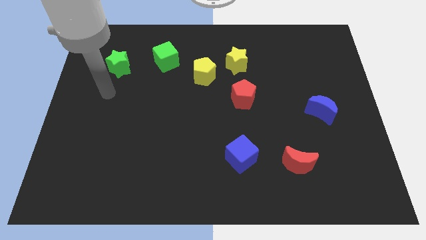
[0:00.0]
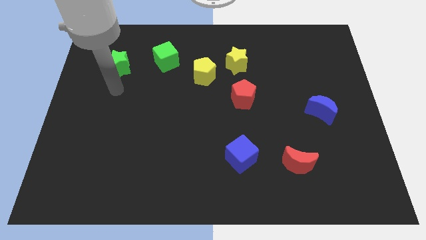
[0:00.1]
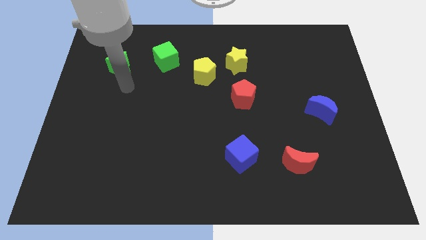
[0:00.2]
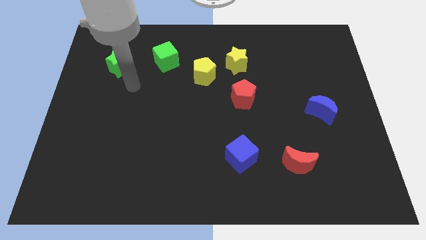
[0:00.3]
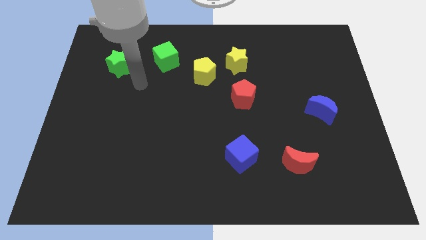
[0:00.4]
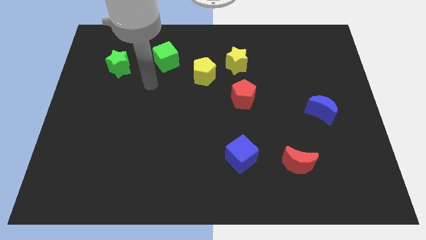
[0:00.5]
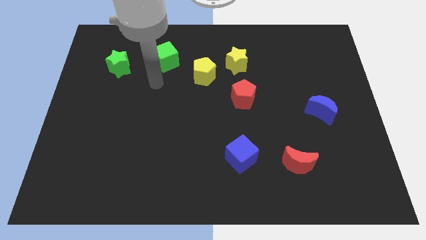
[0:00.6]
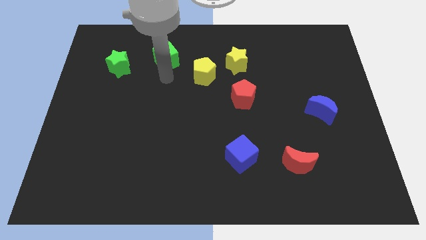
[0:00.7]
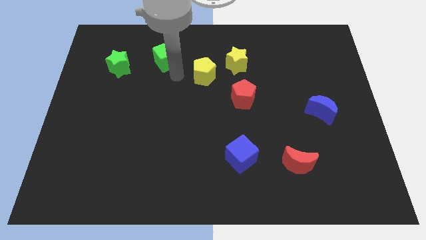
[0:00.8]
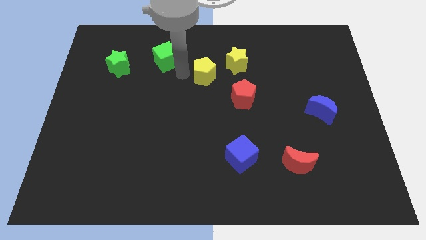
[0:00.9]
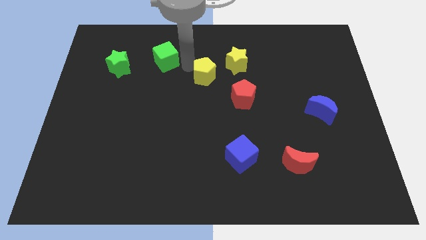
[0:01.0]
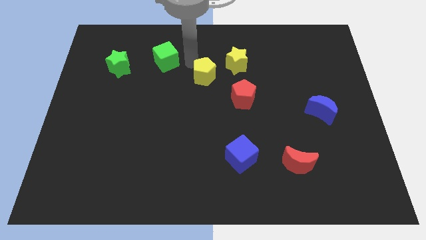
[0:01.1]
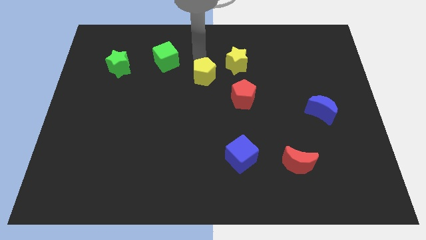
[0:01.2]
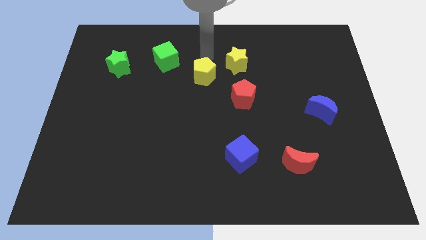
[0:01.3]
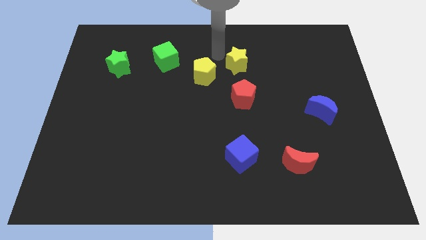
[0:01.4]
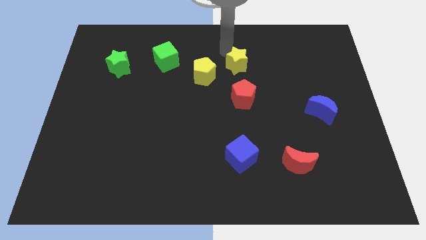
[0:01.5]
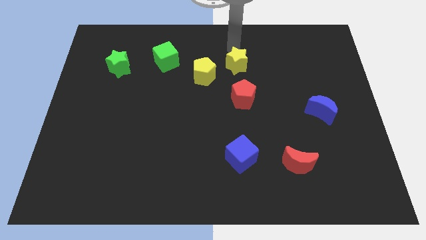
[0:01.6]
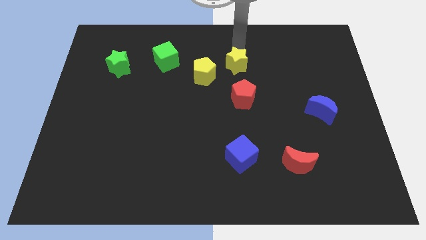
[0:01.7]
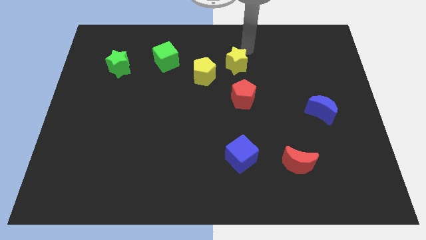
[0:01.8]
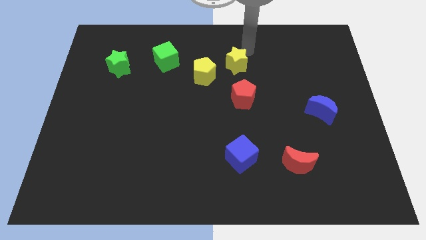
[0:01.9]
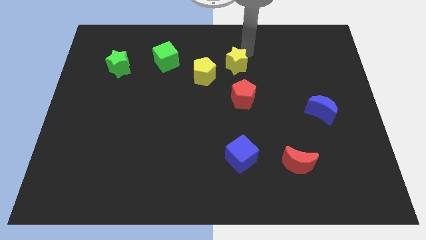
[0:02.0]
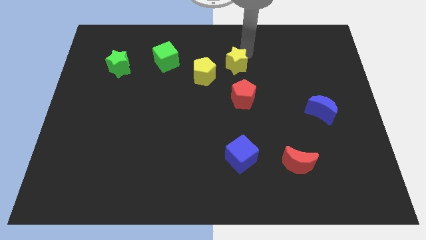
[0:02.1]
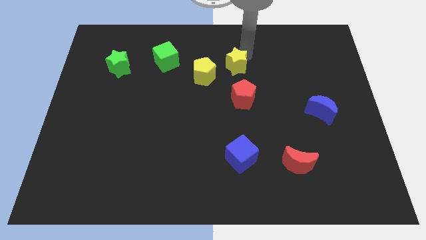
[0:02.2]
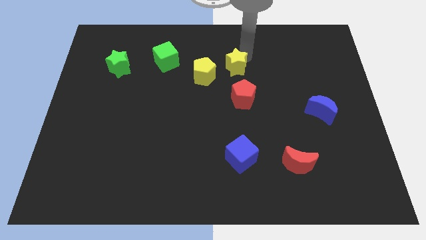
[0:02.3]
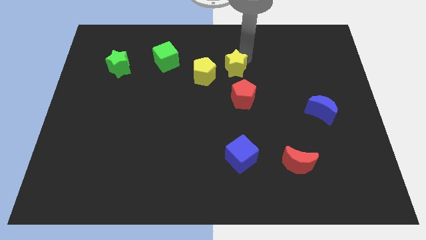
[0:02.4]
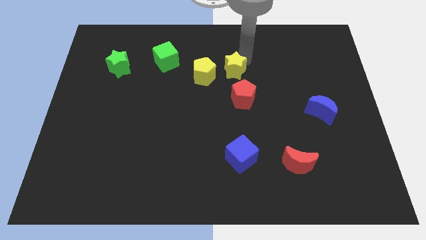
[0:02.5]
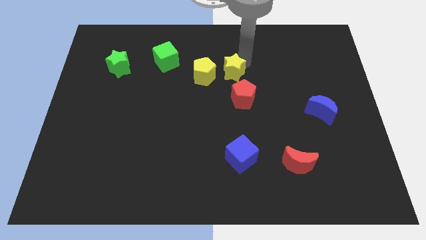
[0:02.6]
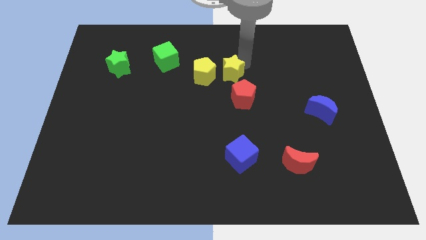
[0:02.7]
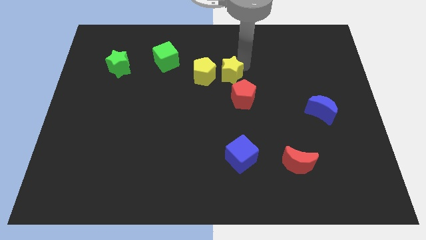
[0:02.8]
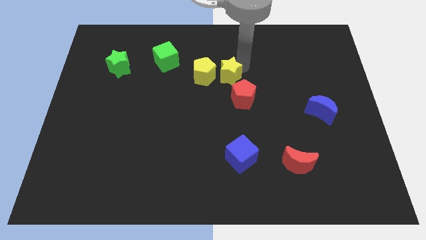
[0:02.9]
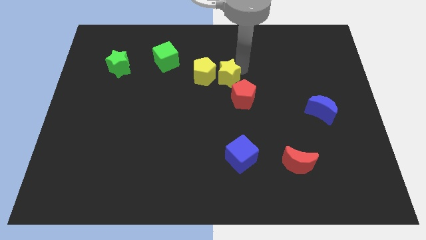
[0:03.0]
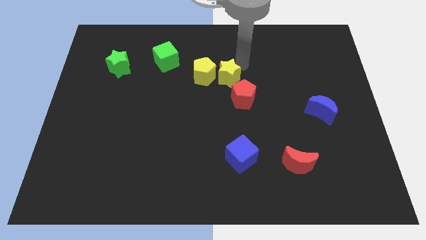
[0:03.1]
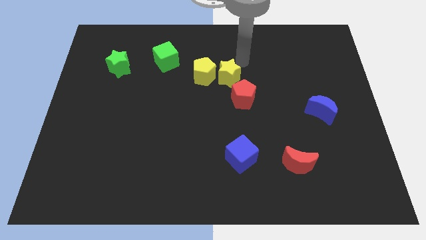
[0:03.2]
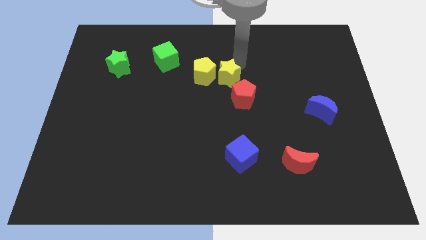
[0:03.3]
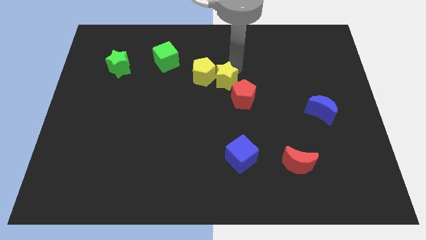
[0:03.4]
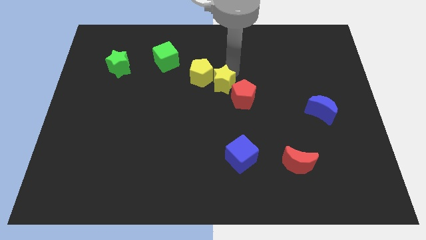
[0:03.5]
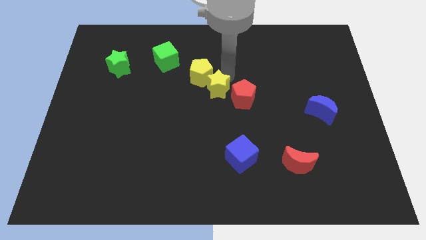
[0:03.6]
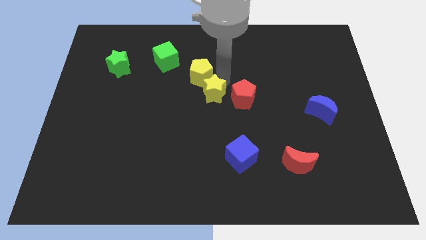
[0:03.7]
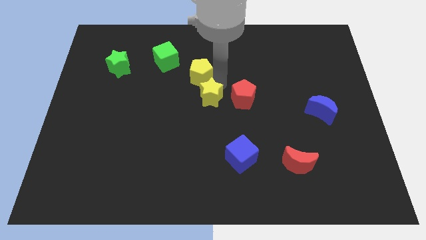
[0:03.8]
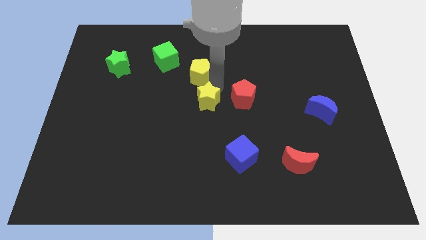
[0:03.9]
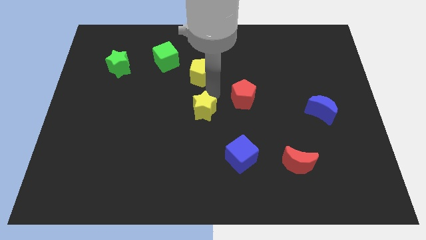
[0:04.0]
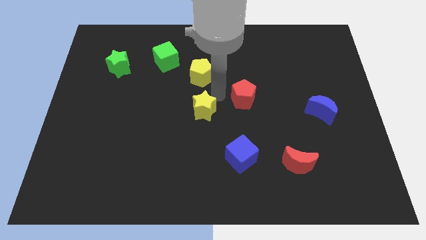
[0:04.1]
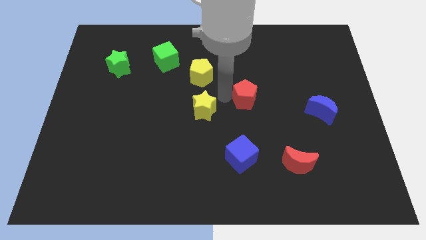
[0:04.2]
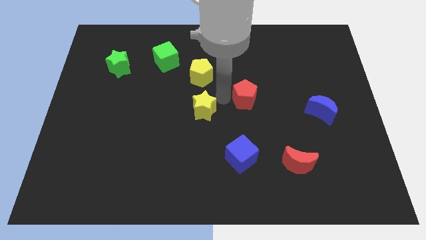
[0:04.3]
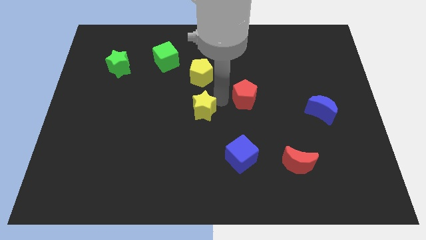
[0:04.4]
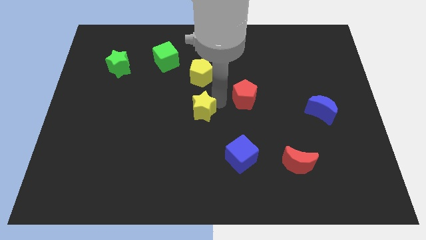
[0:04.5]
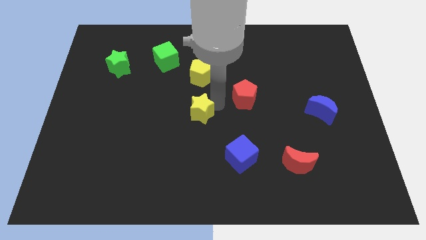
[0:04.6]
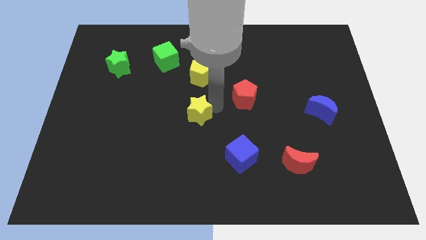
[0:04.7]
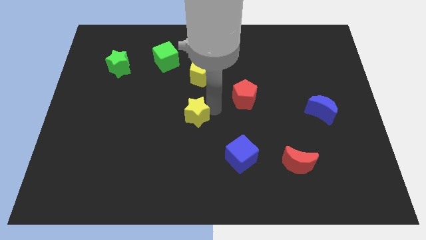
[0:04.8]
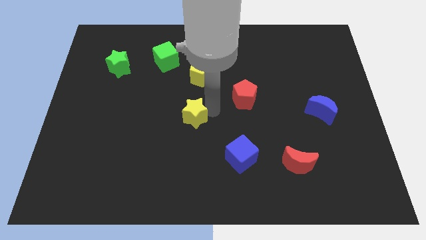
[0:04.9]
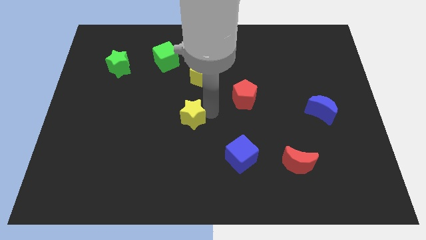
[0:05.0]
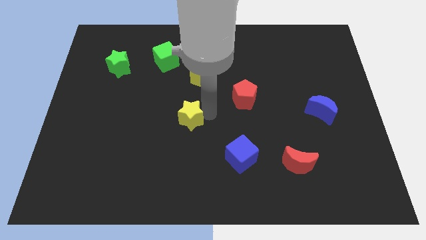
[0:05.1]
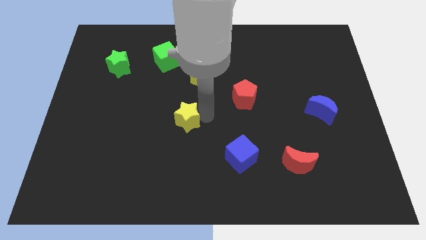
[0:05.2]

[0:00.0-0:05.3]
slide the yellow star downwards and left

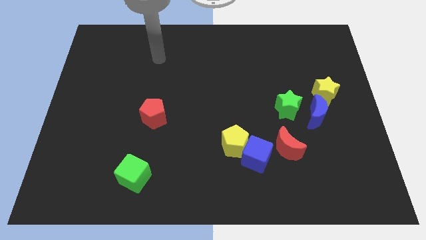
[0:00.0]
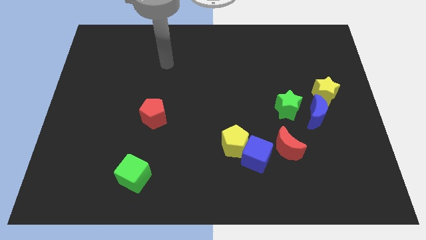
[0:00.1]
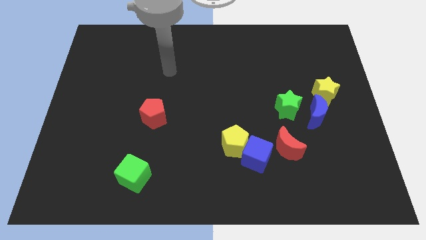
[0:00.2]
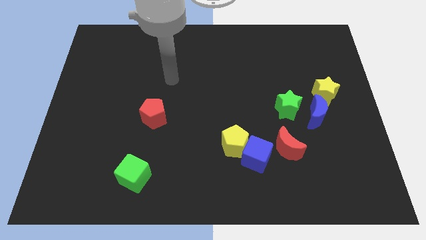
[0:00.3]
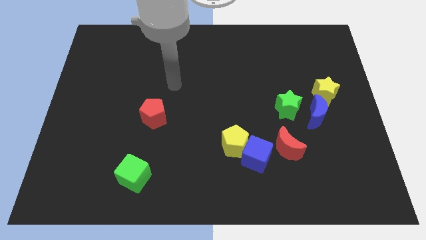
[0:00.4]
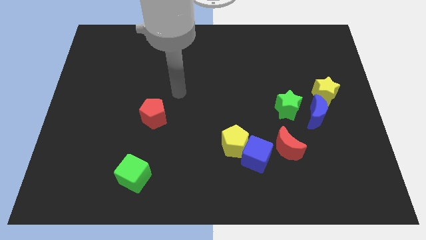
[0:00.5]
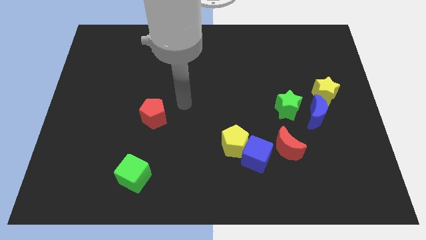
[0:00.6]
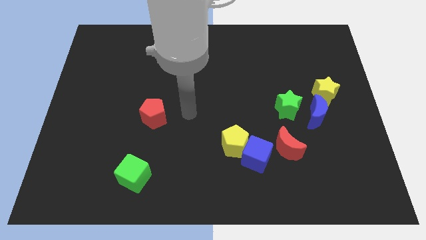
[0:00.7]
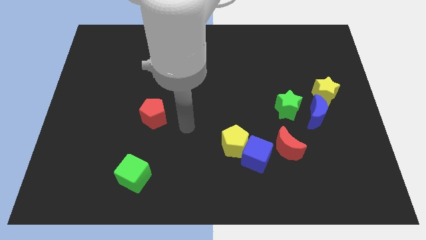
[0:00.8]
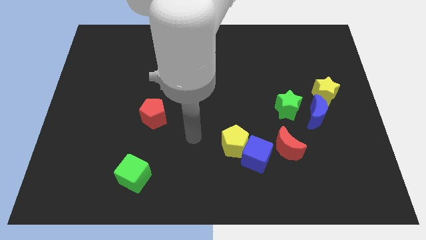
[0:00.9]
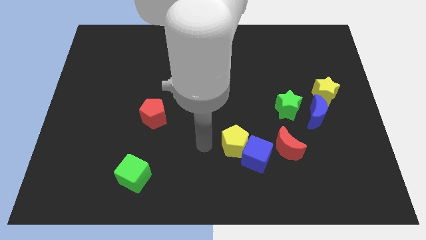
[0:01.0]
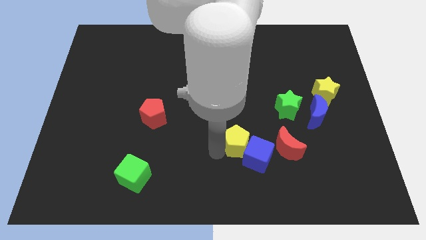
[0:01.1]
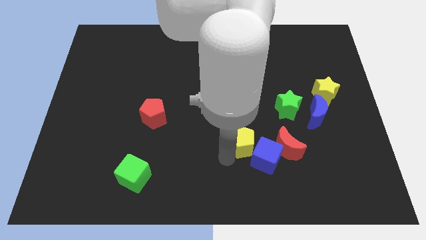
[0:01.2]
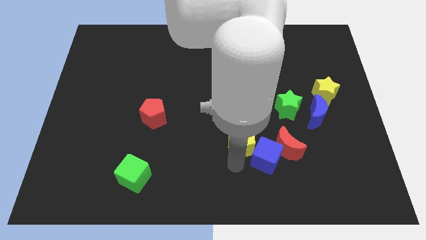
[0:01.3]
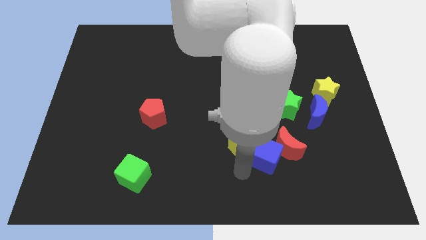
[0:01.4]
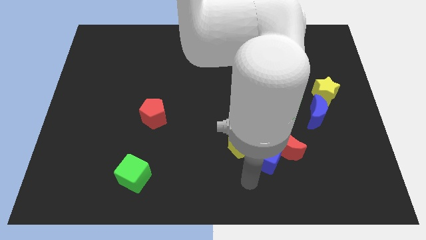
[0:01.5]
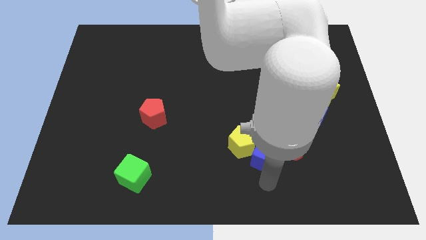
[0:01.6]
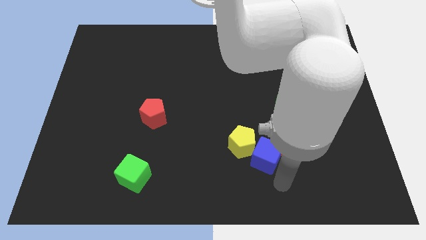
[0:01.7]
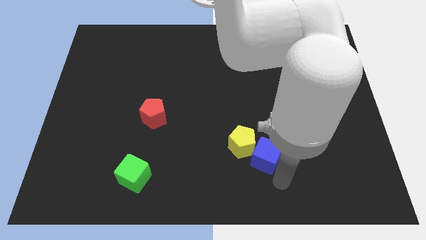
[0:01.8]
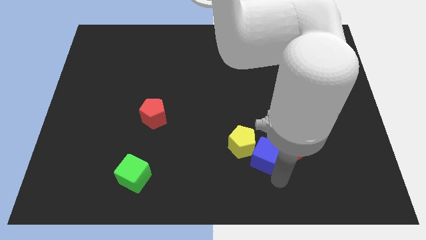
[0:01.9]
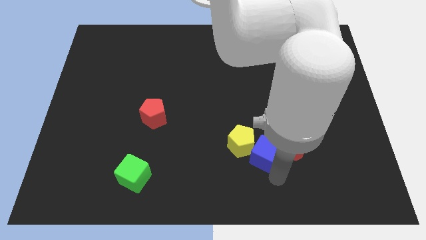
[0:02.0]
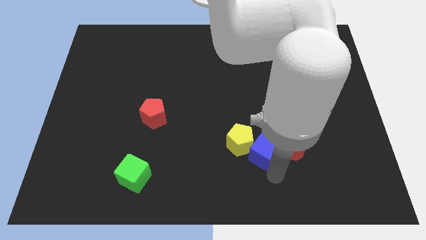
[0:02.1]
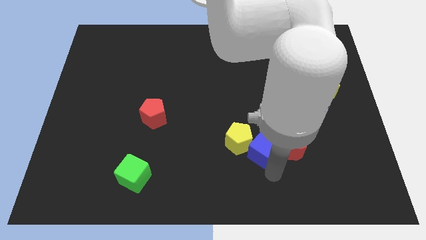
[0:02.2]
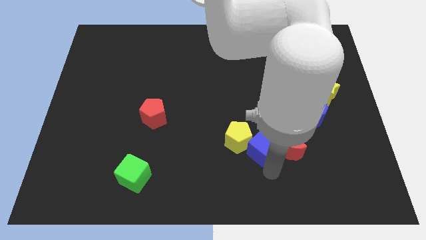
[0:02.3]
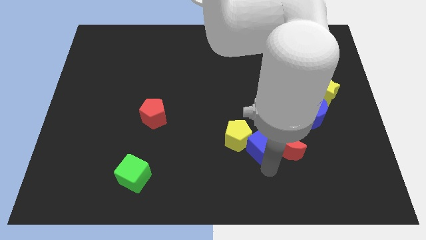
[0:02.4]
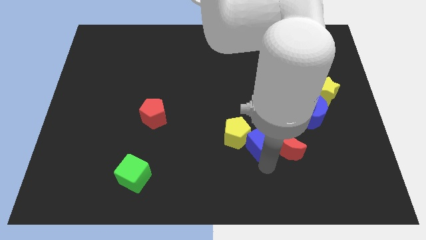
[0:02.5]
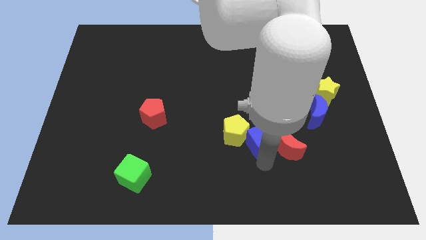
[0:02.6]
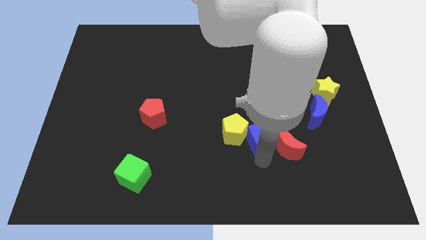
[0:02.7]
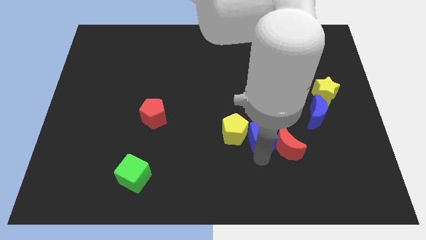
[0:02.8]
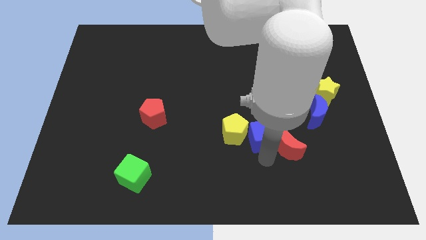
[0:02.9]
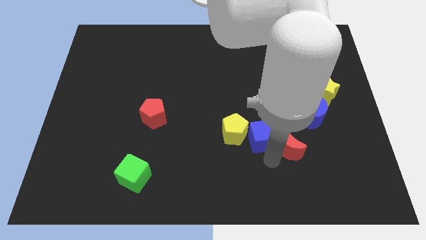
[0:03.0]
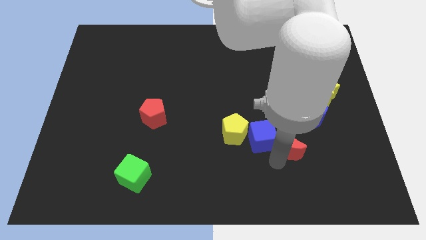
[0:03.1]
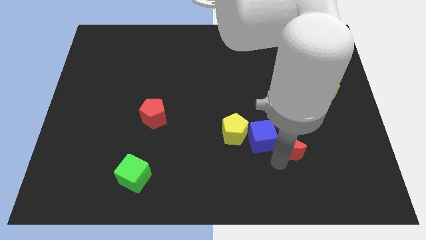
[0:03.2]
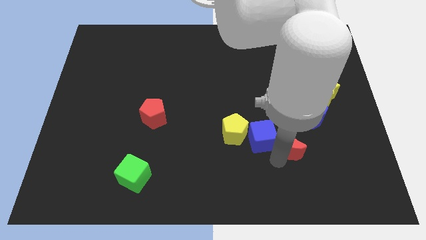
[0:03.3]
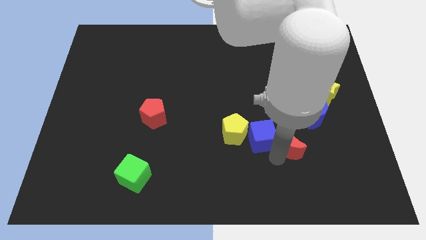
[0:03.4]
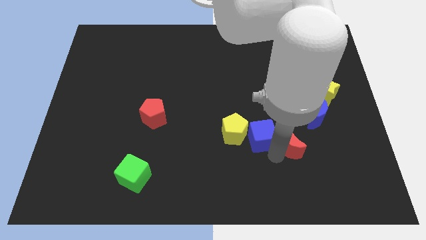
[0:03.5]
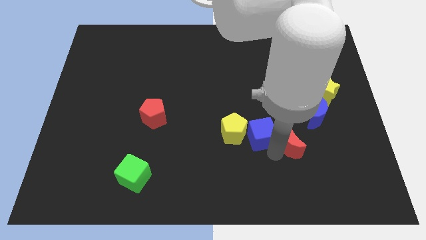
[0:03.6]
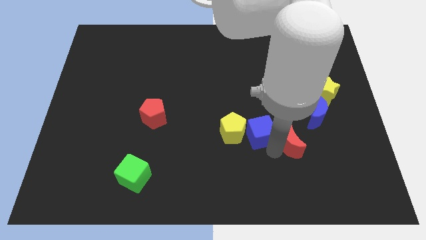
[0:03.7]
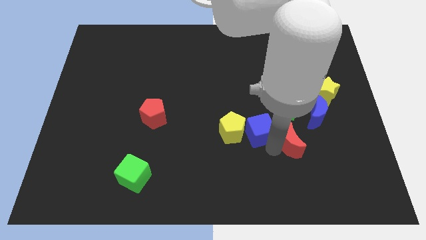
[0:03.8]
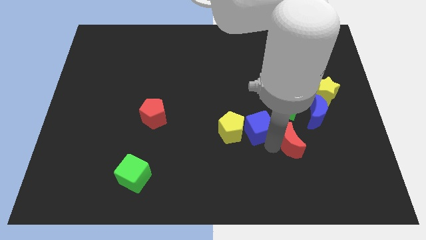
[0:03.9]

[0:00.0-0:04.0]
move the blue cube somewhat upwards
